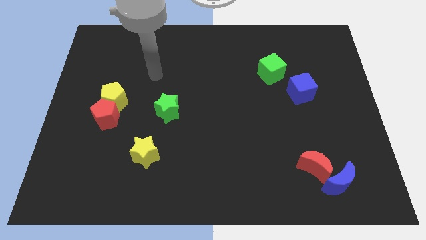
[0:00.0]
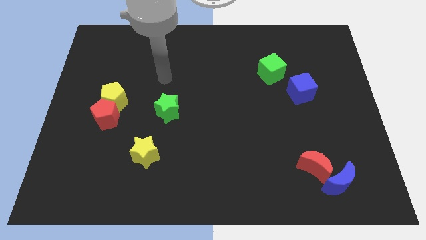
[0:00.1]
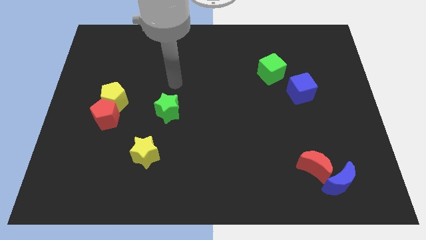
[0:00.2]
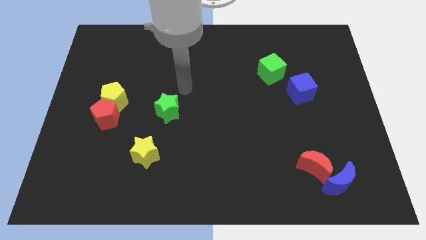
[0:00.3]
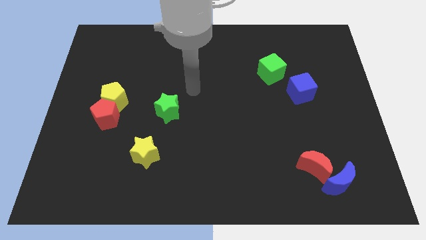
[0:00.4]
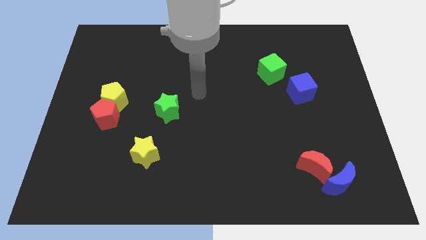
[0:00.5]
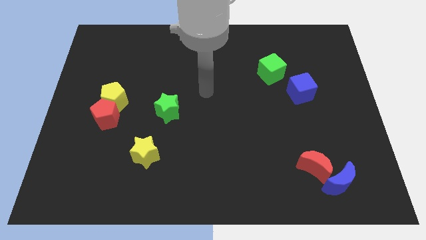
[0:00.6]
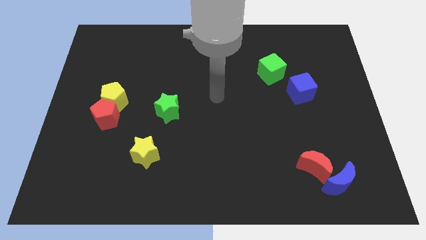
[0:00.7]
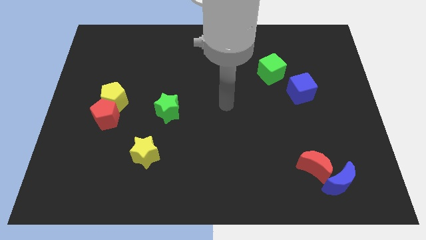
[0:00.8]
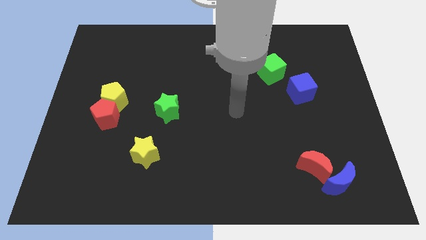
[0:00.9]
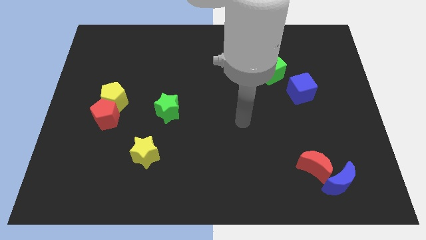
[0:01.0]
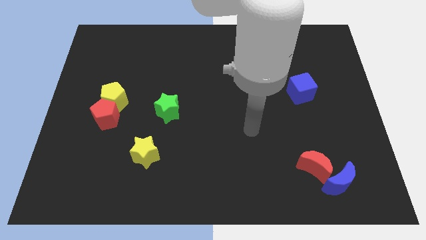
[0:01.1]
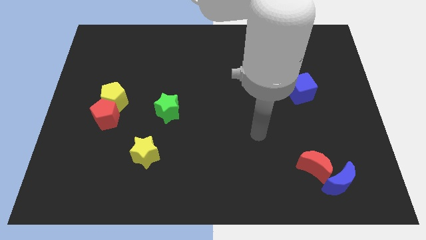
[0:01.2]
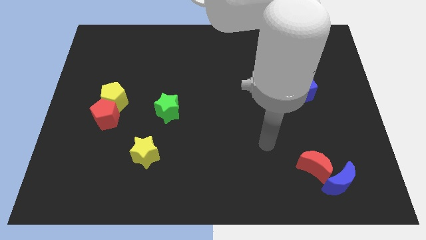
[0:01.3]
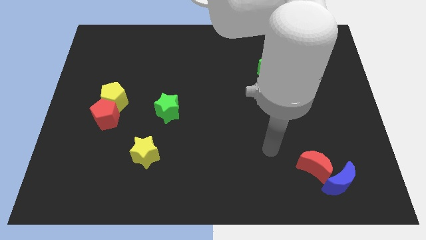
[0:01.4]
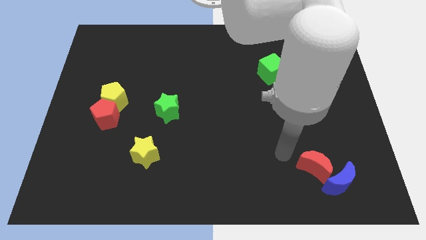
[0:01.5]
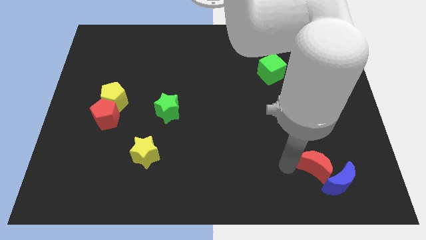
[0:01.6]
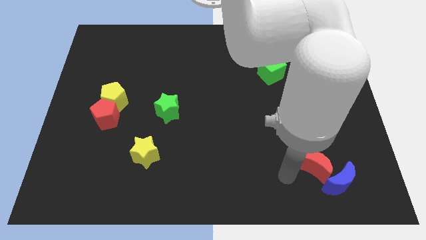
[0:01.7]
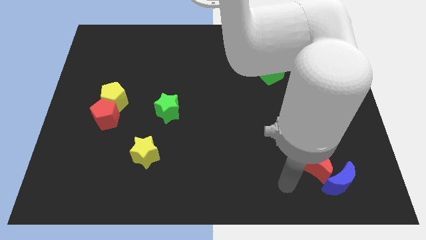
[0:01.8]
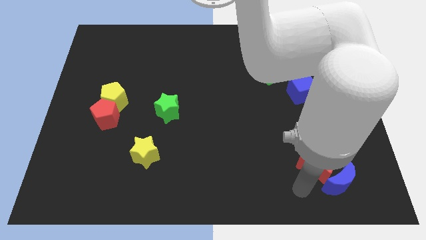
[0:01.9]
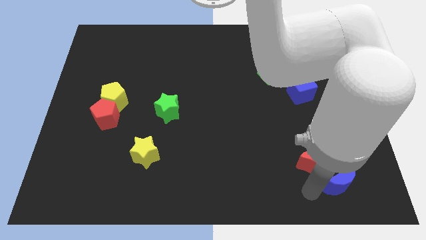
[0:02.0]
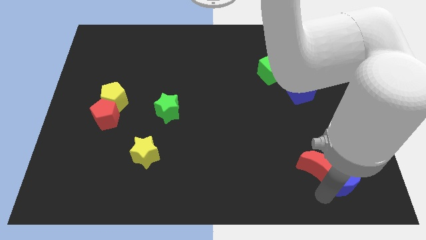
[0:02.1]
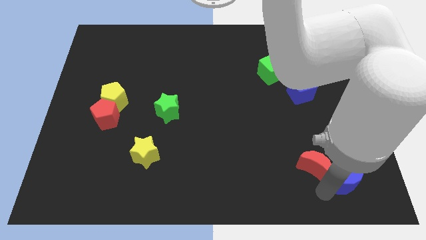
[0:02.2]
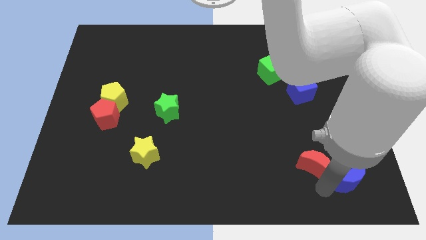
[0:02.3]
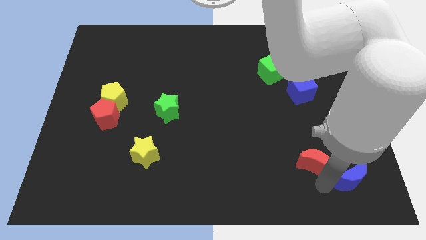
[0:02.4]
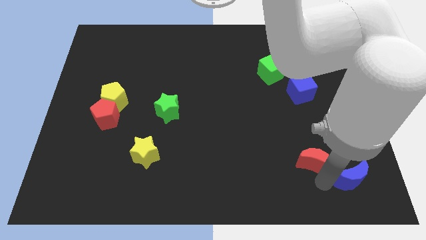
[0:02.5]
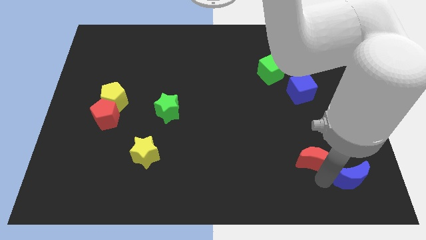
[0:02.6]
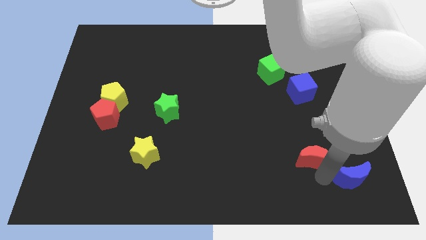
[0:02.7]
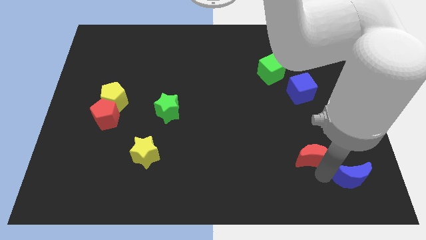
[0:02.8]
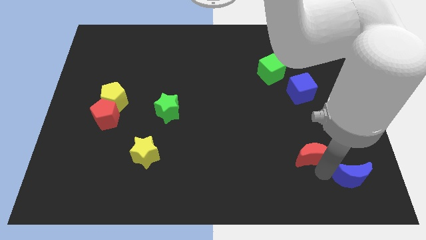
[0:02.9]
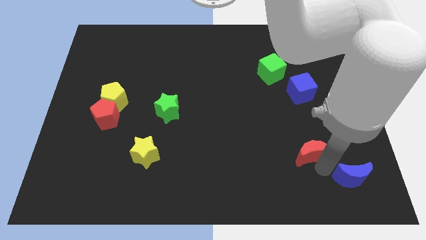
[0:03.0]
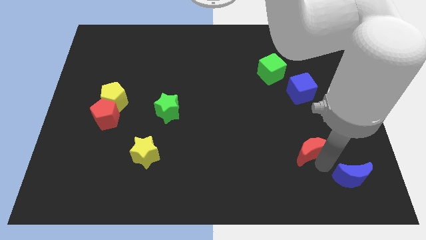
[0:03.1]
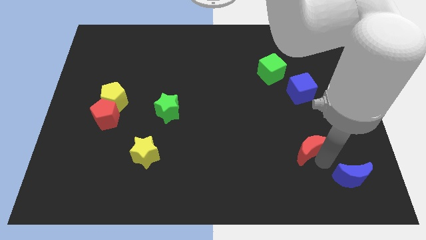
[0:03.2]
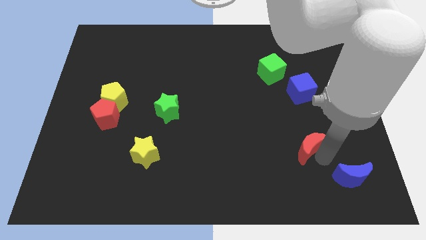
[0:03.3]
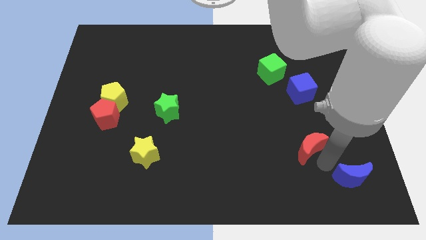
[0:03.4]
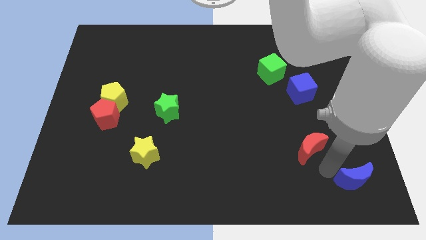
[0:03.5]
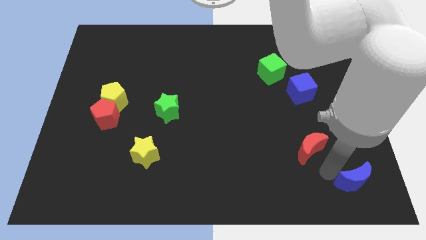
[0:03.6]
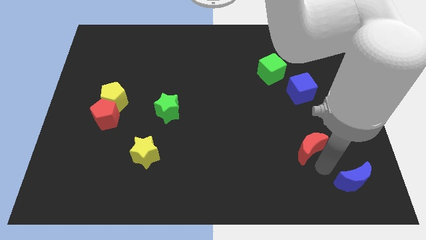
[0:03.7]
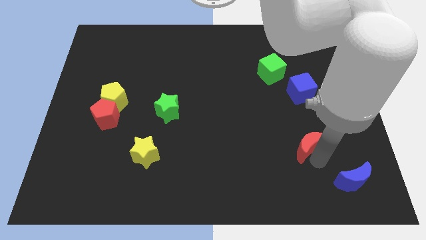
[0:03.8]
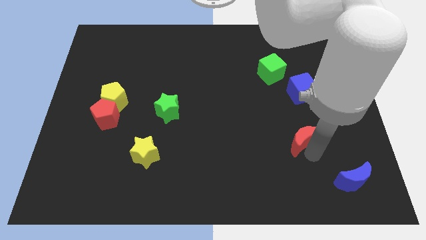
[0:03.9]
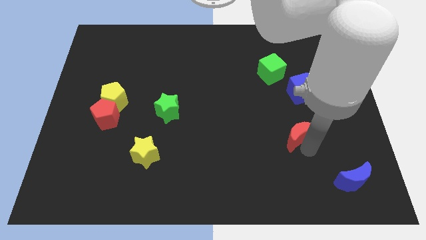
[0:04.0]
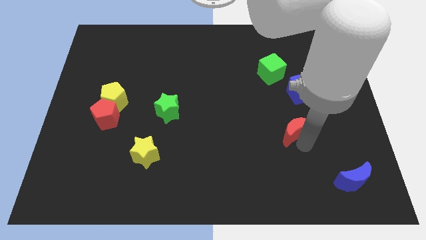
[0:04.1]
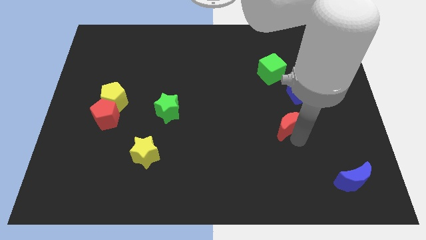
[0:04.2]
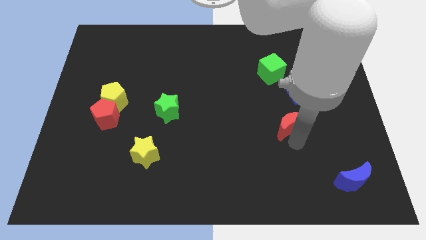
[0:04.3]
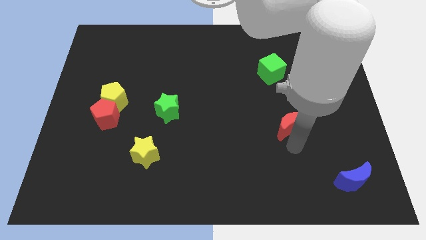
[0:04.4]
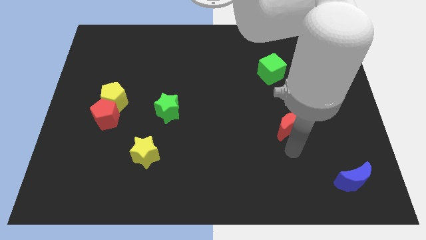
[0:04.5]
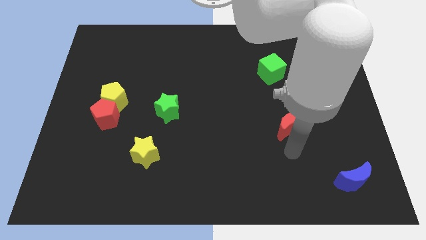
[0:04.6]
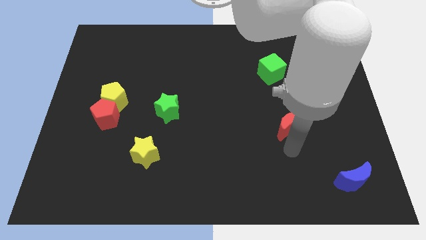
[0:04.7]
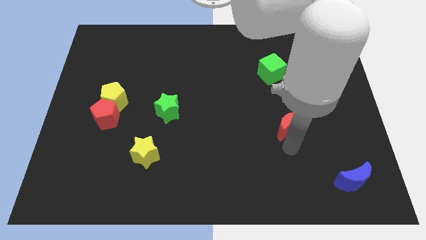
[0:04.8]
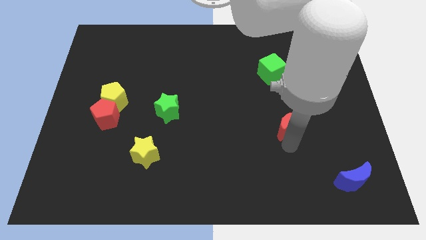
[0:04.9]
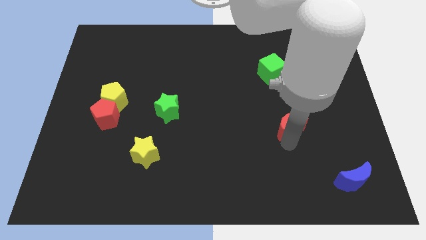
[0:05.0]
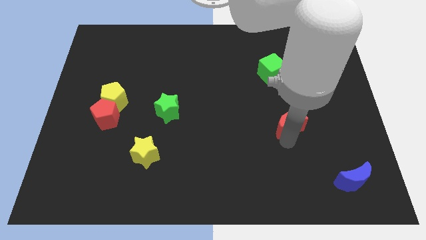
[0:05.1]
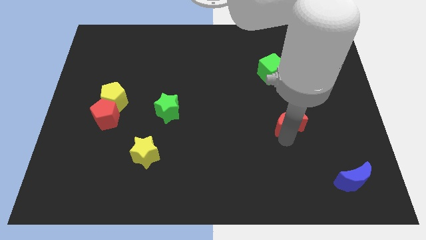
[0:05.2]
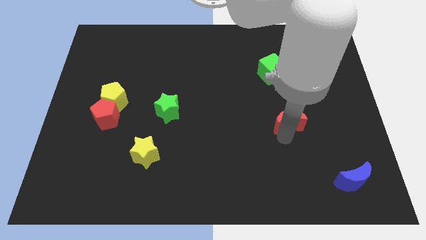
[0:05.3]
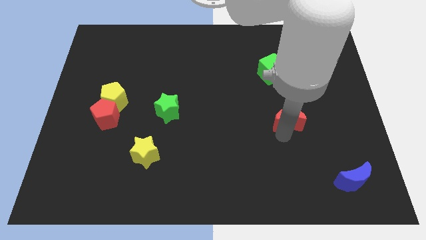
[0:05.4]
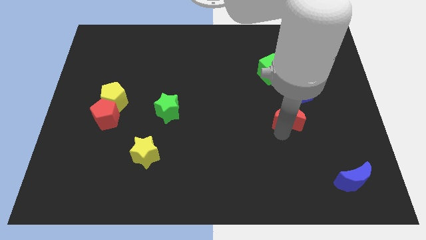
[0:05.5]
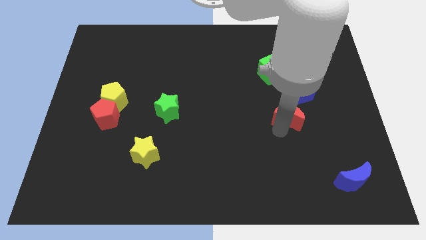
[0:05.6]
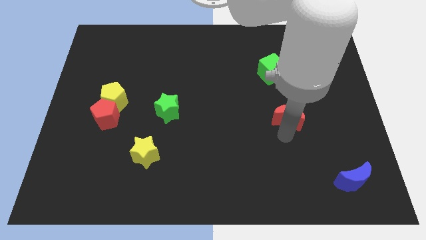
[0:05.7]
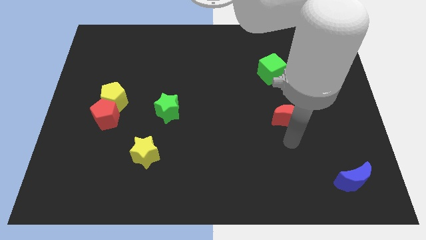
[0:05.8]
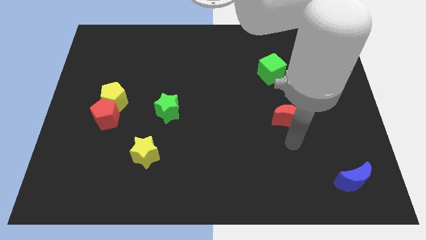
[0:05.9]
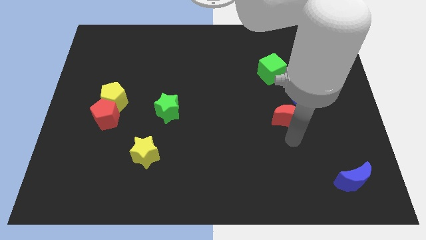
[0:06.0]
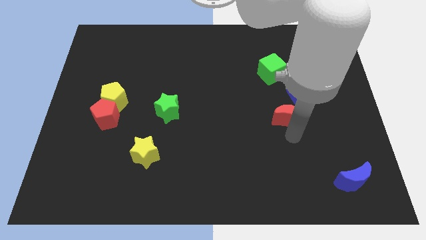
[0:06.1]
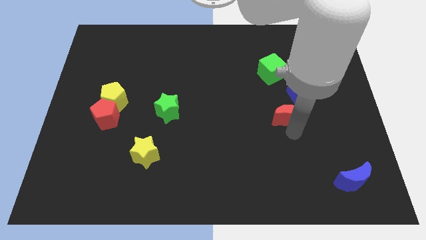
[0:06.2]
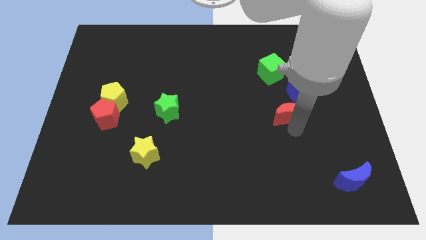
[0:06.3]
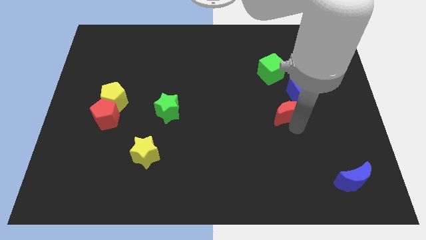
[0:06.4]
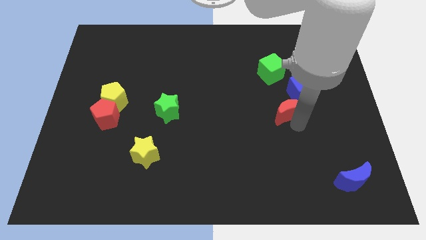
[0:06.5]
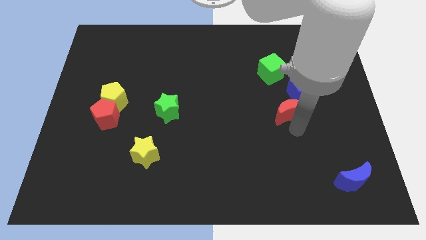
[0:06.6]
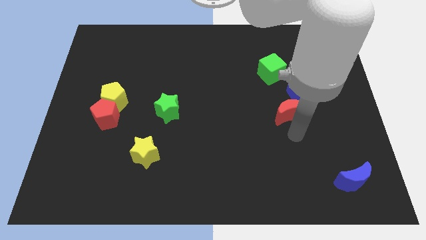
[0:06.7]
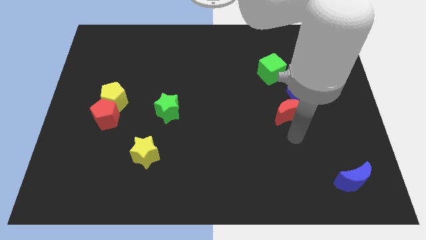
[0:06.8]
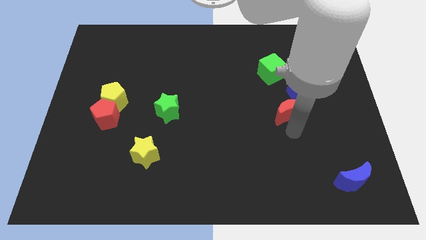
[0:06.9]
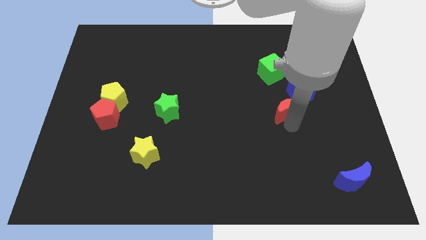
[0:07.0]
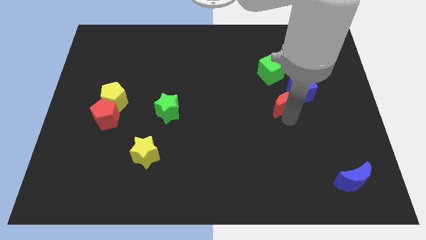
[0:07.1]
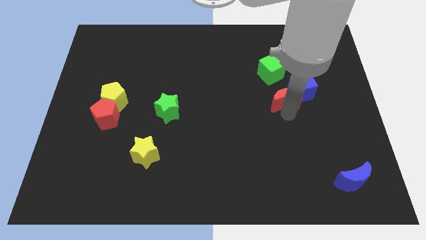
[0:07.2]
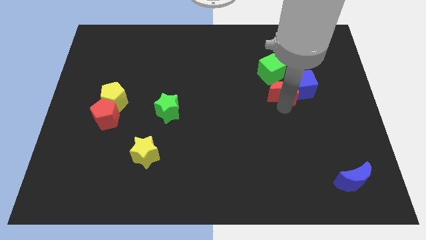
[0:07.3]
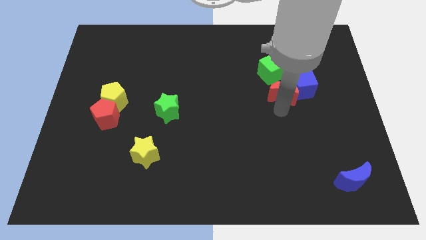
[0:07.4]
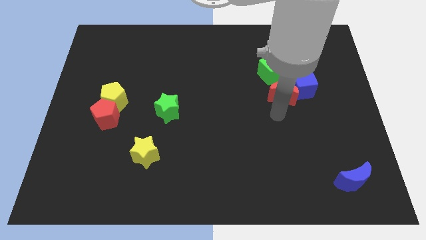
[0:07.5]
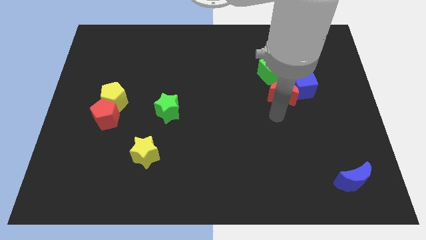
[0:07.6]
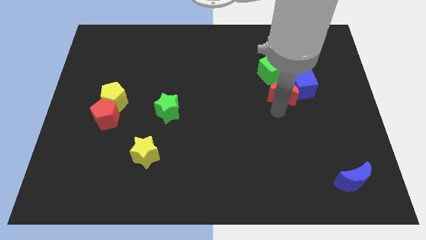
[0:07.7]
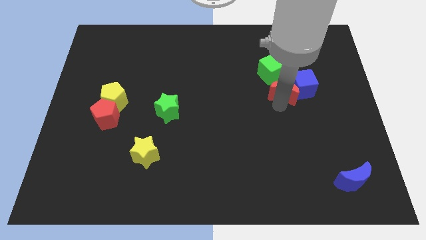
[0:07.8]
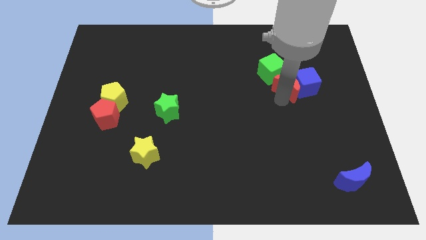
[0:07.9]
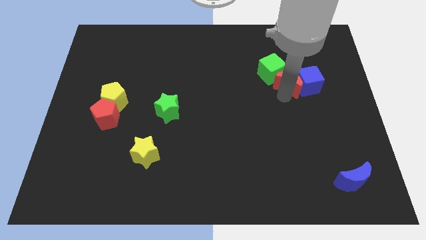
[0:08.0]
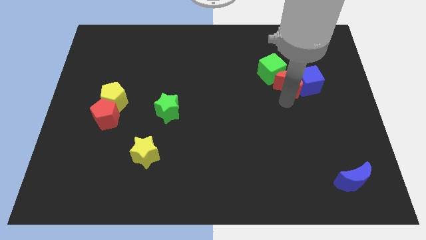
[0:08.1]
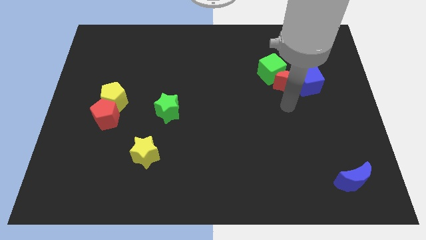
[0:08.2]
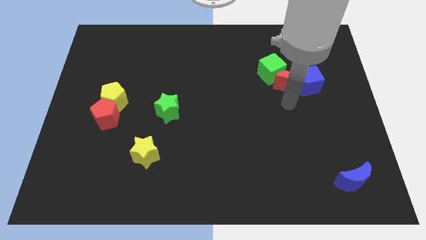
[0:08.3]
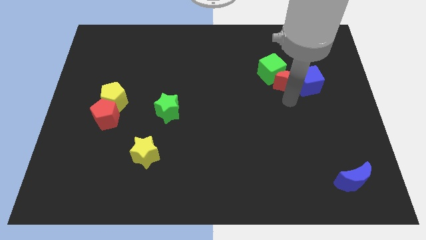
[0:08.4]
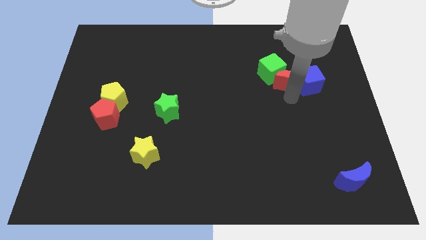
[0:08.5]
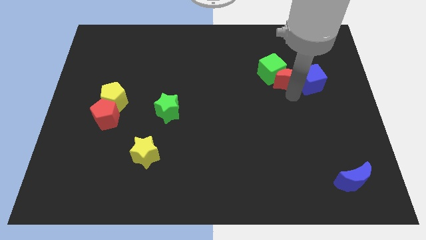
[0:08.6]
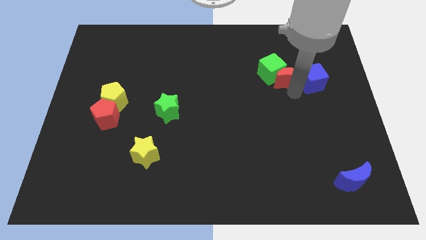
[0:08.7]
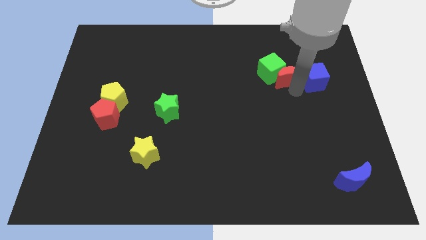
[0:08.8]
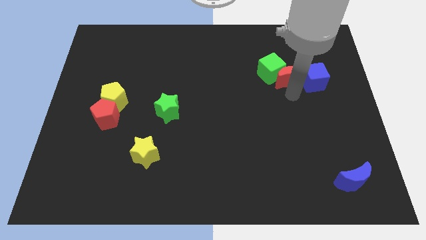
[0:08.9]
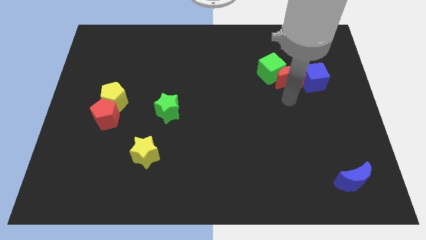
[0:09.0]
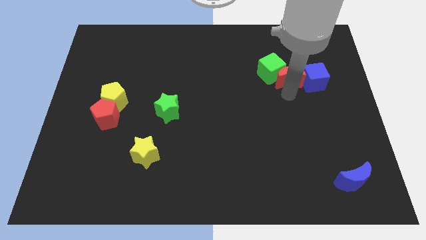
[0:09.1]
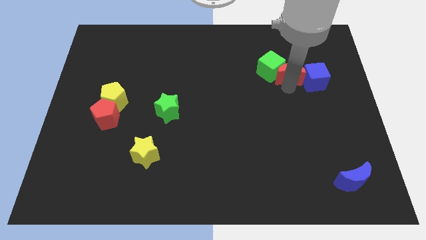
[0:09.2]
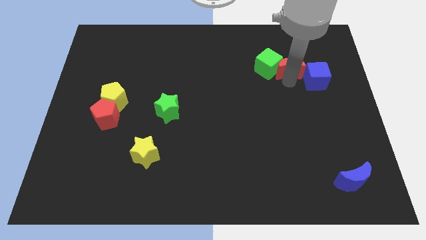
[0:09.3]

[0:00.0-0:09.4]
slide the red moon to the top right of the green cube
